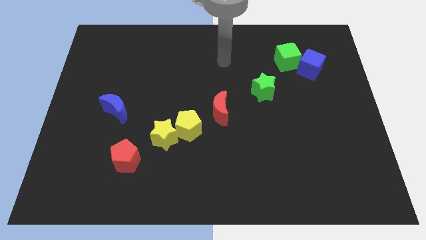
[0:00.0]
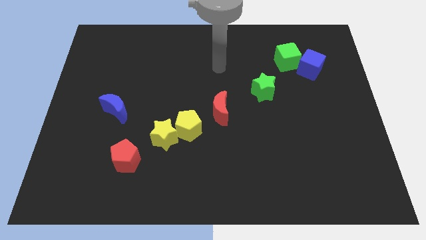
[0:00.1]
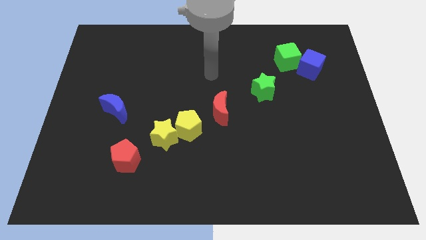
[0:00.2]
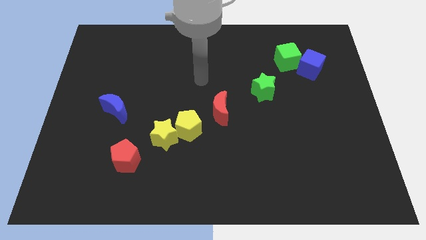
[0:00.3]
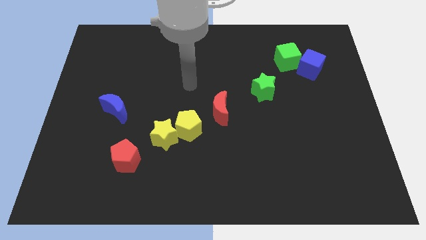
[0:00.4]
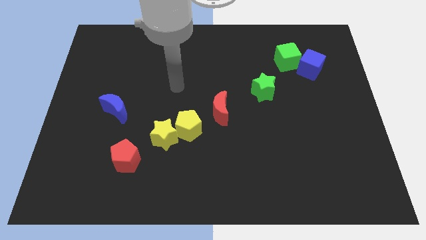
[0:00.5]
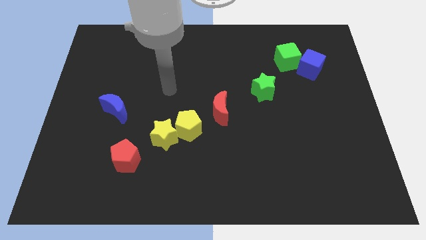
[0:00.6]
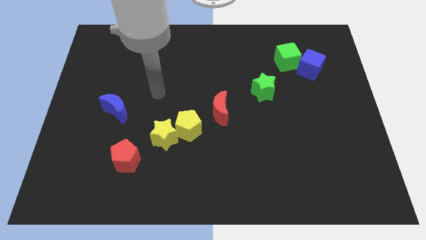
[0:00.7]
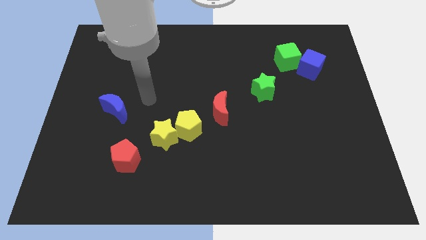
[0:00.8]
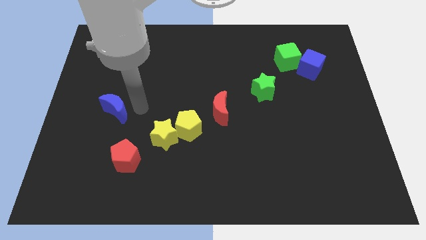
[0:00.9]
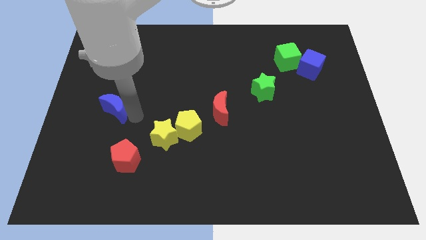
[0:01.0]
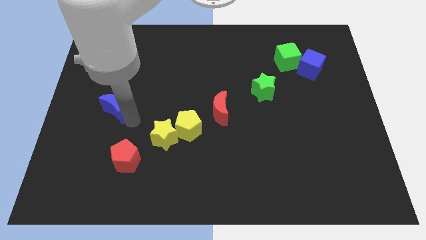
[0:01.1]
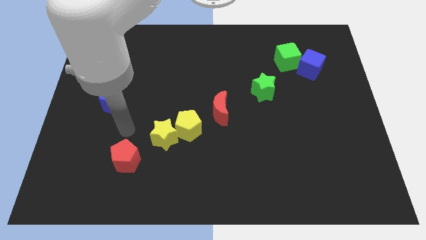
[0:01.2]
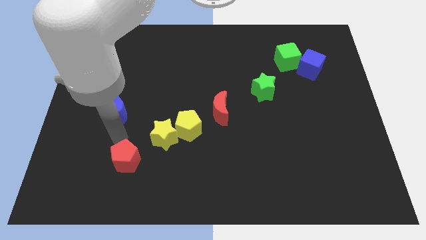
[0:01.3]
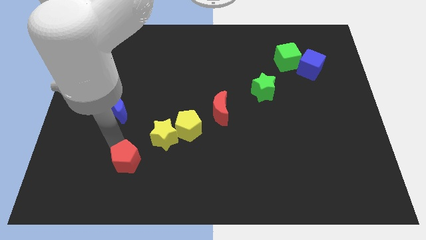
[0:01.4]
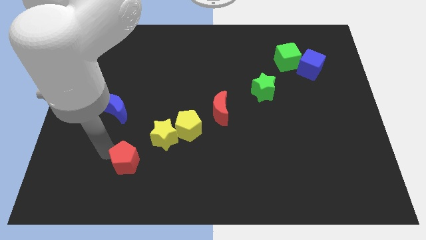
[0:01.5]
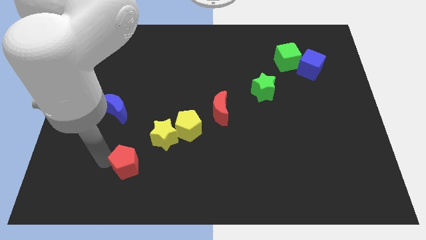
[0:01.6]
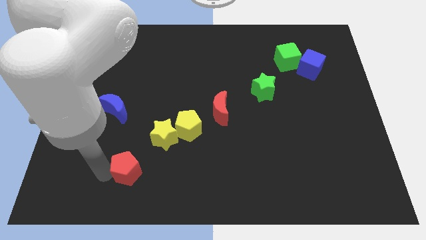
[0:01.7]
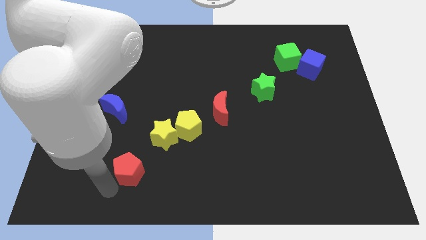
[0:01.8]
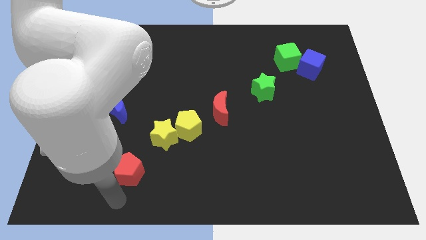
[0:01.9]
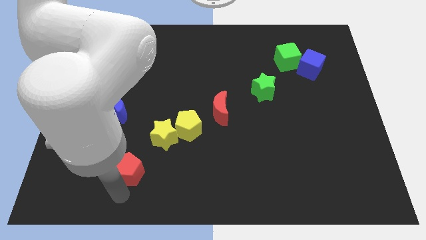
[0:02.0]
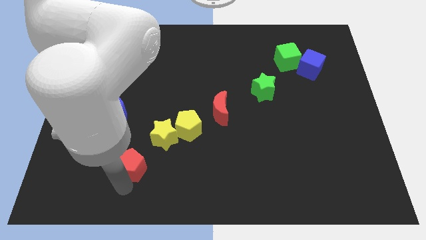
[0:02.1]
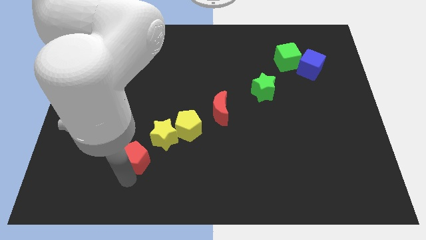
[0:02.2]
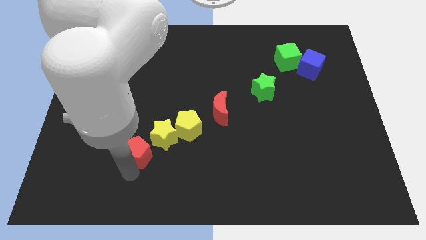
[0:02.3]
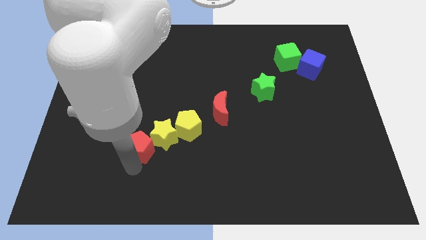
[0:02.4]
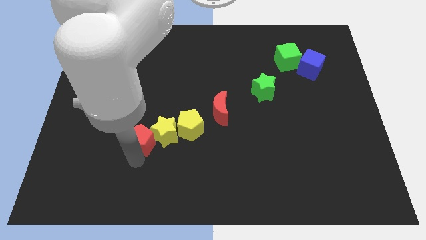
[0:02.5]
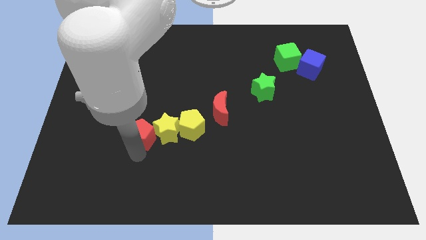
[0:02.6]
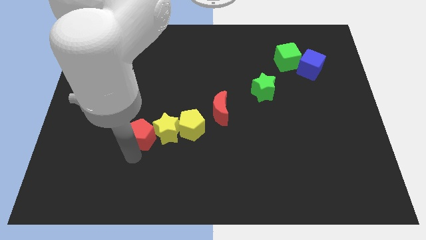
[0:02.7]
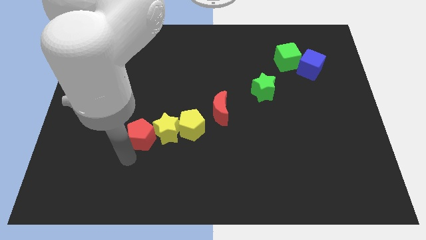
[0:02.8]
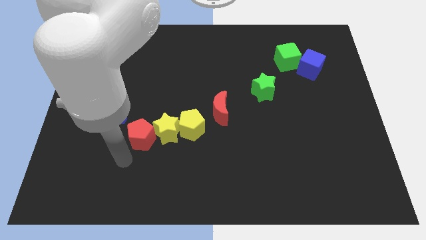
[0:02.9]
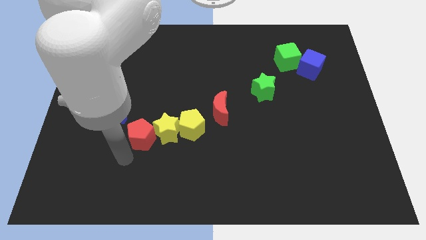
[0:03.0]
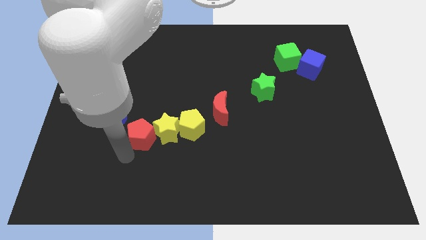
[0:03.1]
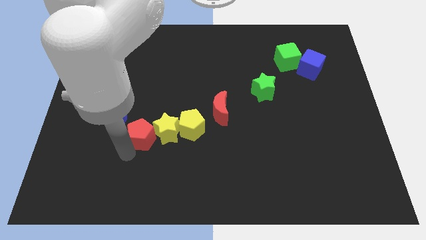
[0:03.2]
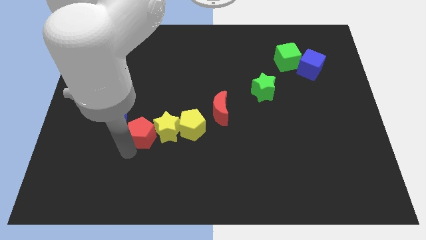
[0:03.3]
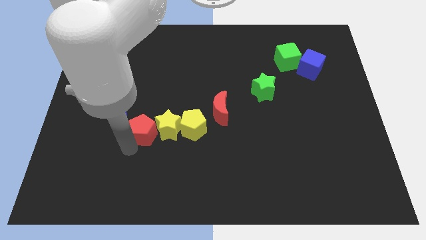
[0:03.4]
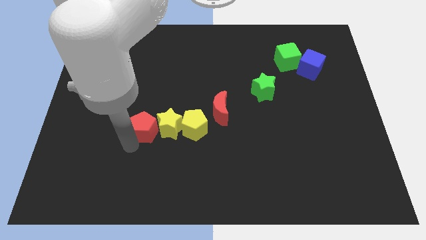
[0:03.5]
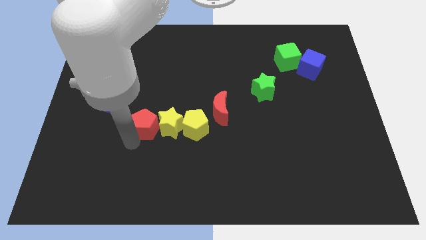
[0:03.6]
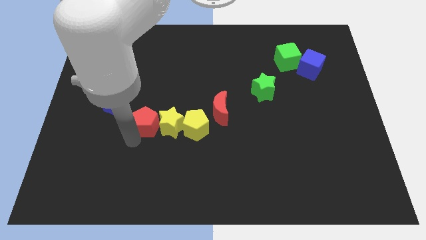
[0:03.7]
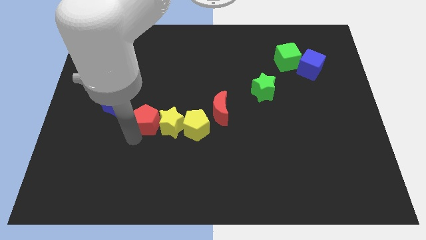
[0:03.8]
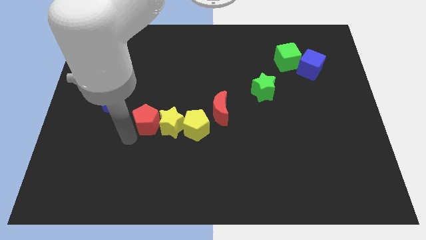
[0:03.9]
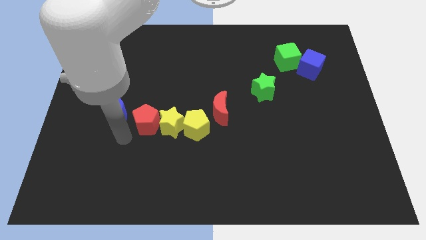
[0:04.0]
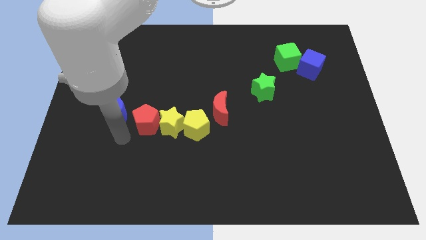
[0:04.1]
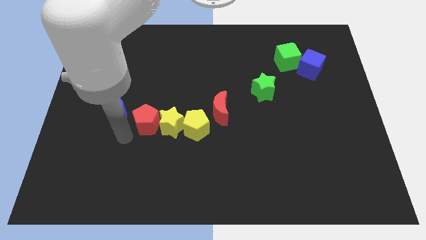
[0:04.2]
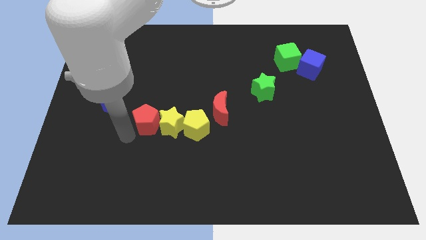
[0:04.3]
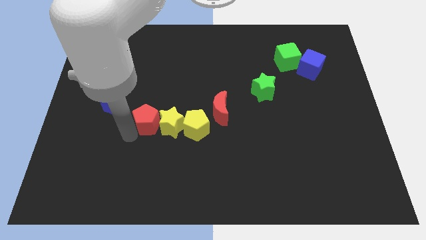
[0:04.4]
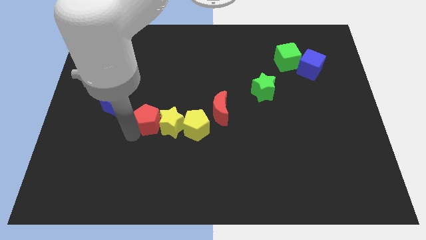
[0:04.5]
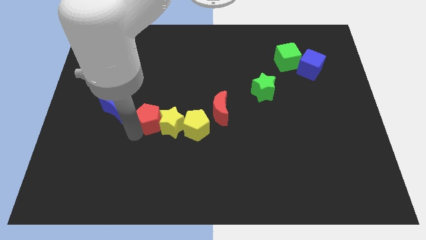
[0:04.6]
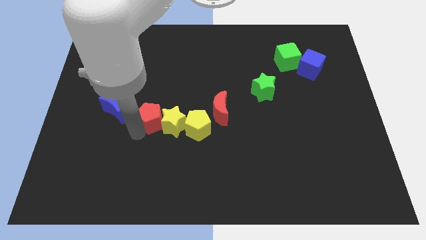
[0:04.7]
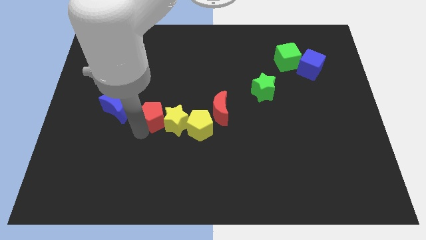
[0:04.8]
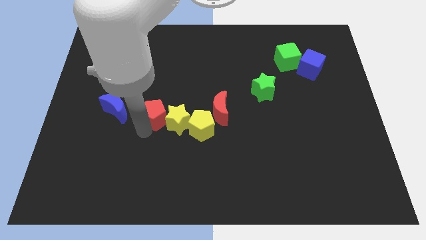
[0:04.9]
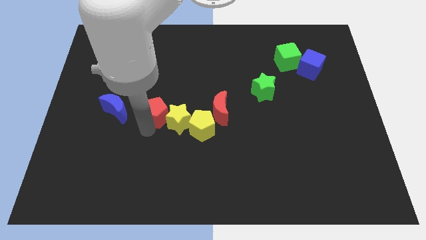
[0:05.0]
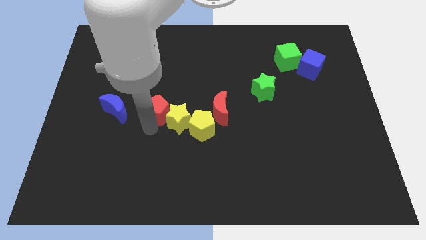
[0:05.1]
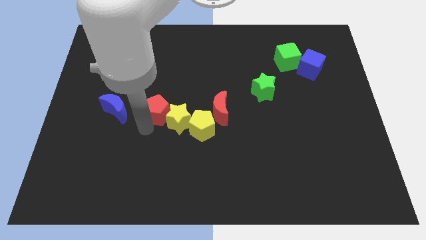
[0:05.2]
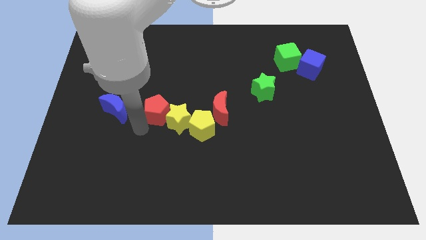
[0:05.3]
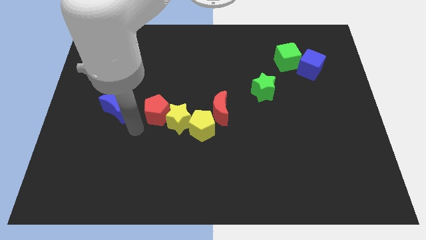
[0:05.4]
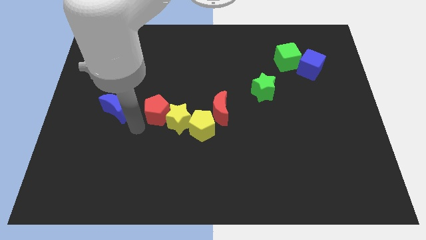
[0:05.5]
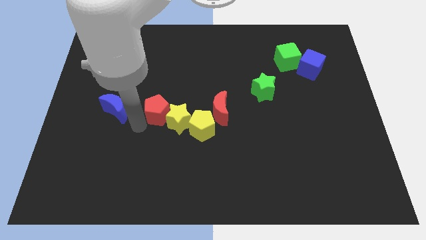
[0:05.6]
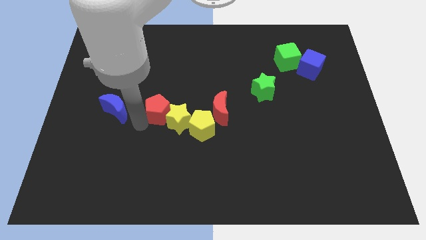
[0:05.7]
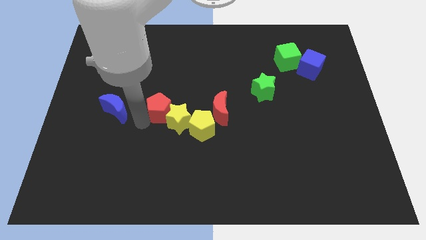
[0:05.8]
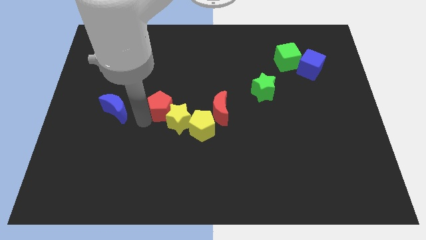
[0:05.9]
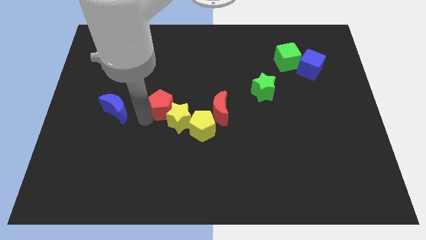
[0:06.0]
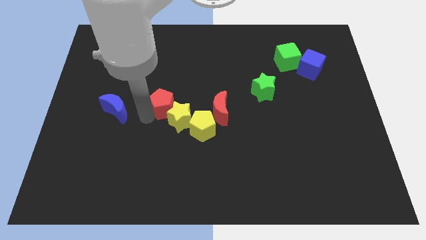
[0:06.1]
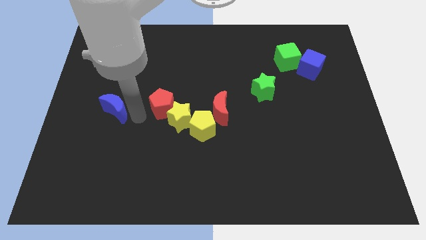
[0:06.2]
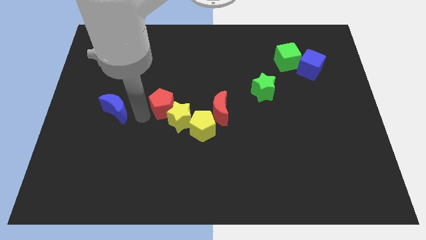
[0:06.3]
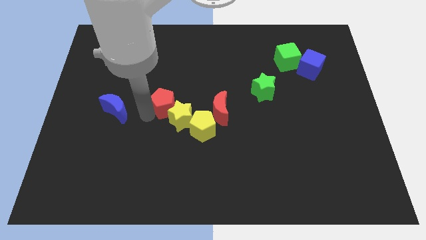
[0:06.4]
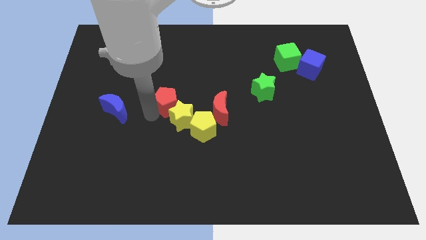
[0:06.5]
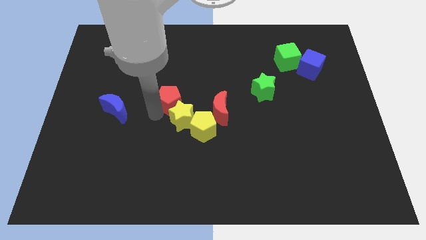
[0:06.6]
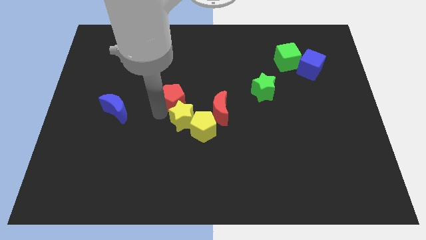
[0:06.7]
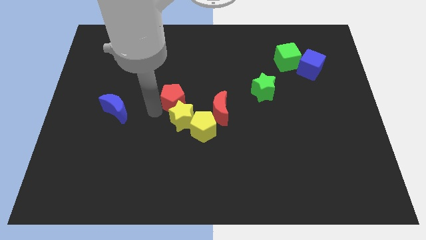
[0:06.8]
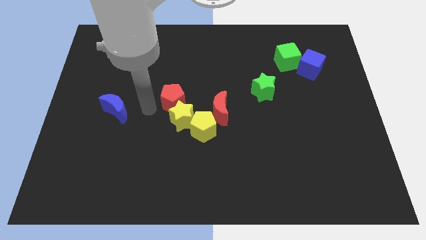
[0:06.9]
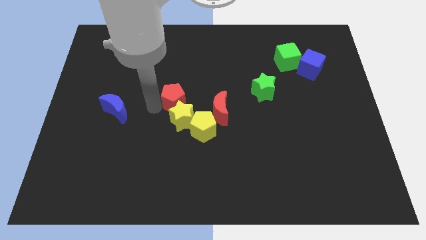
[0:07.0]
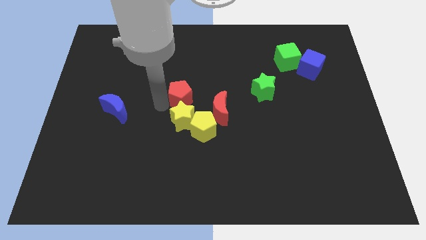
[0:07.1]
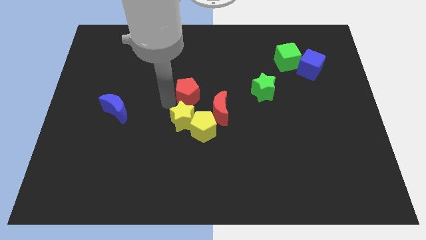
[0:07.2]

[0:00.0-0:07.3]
slide the red pentagon to the top of the yellow pentagon
